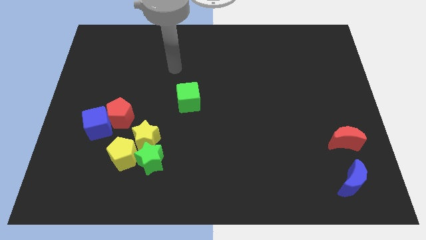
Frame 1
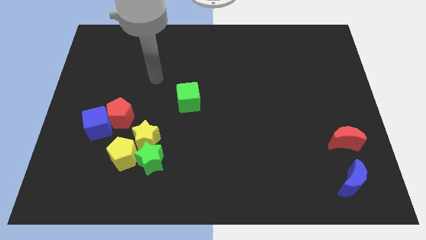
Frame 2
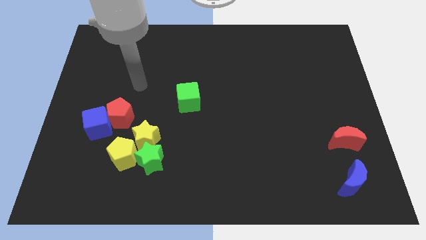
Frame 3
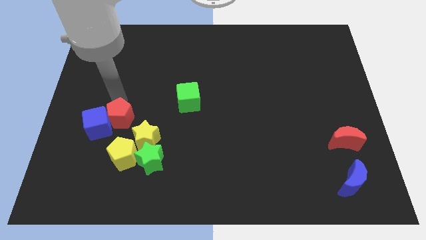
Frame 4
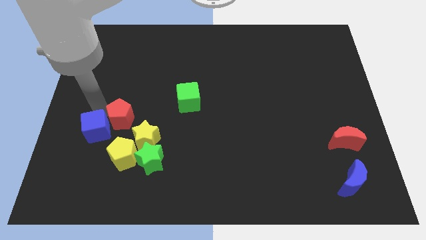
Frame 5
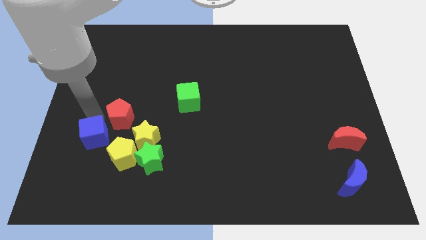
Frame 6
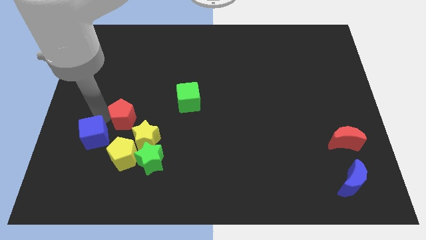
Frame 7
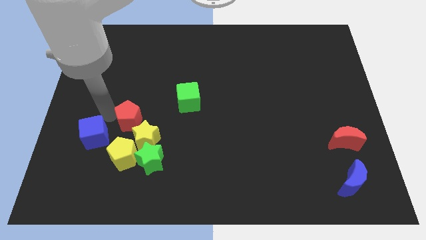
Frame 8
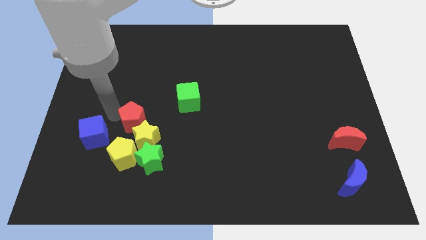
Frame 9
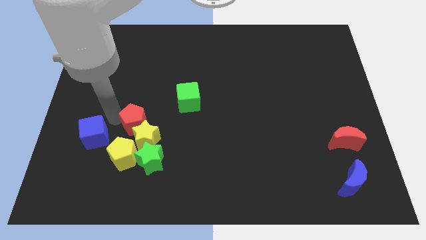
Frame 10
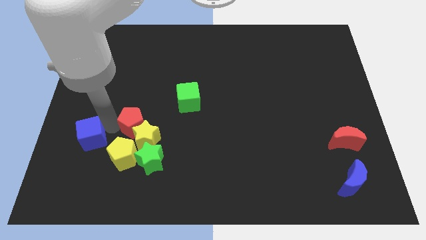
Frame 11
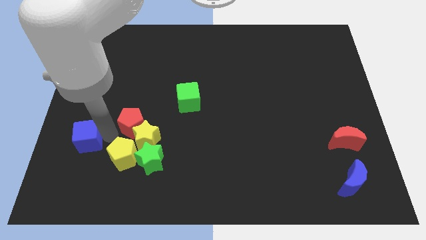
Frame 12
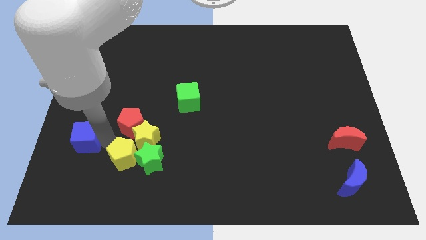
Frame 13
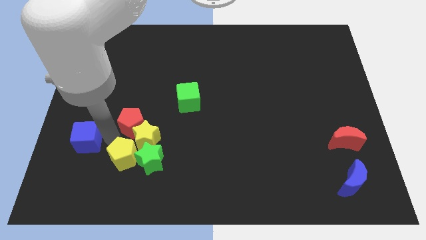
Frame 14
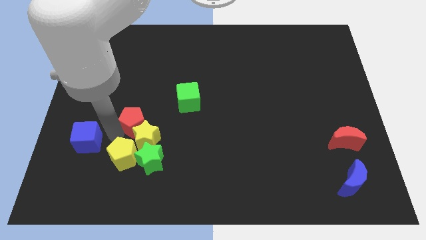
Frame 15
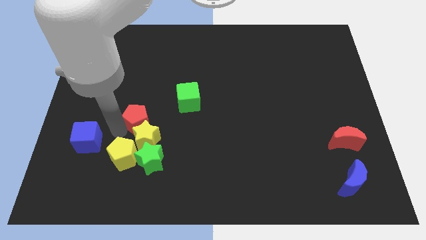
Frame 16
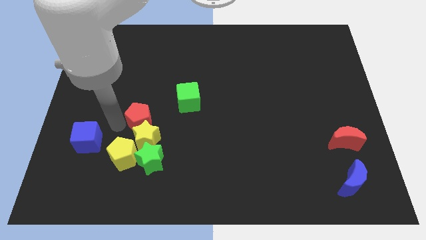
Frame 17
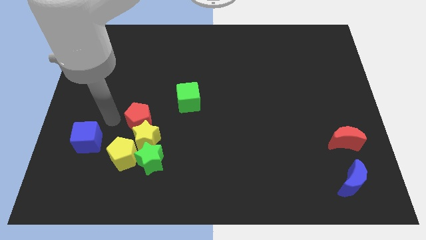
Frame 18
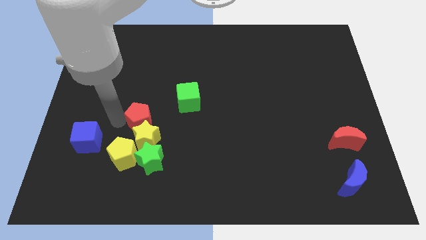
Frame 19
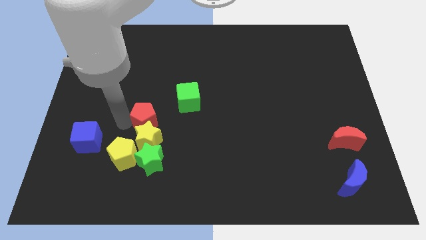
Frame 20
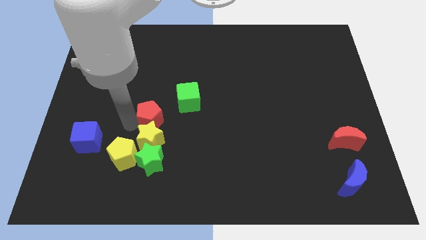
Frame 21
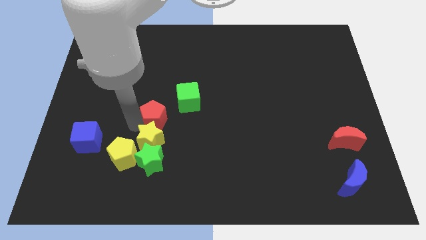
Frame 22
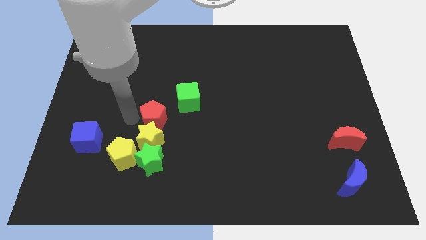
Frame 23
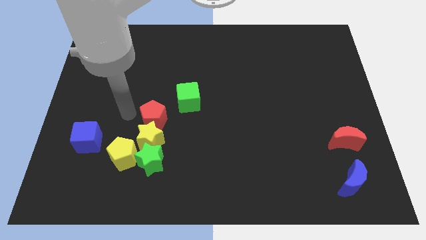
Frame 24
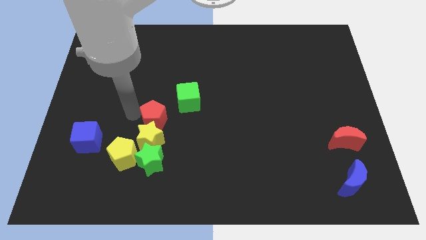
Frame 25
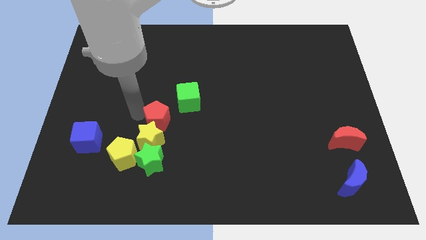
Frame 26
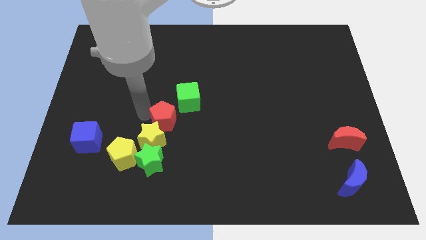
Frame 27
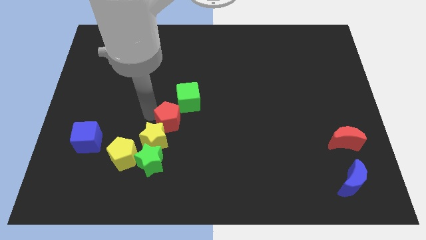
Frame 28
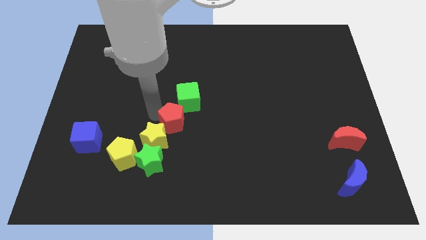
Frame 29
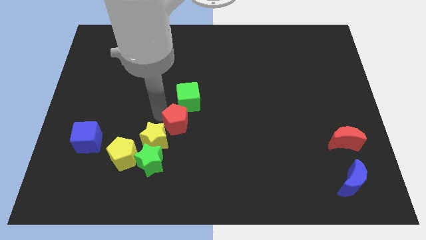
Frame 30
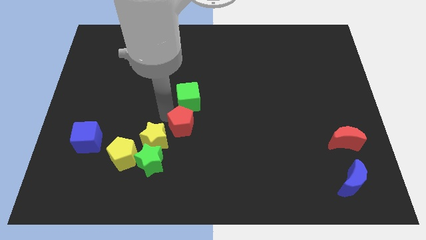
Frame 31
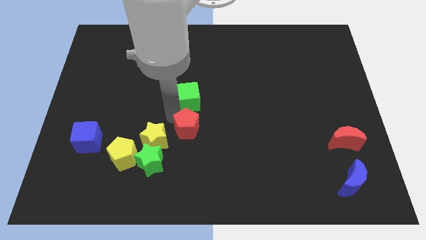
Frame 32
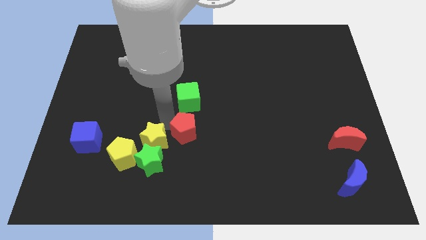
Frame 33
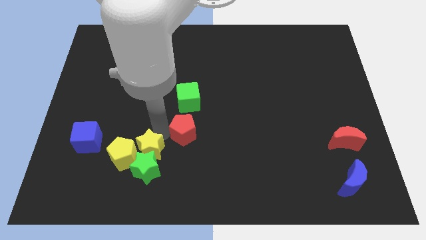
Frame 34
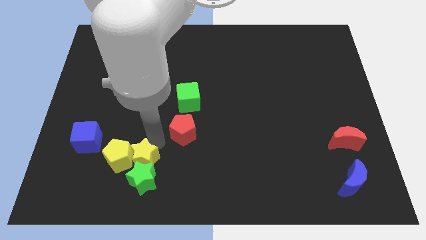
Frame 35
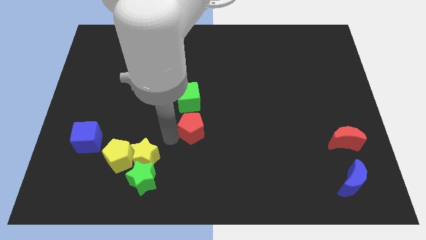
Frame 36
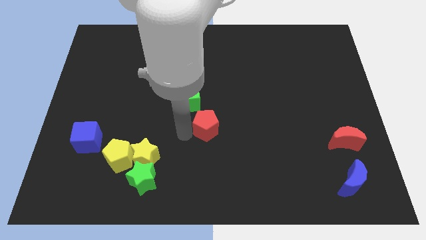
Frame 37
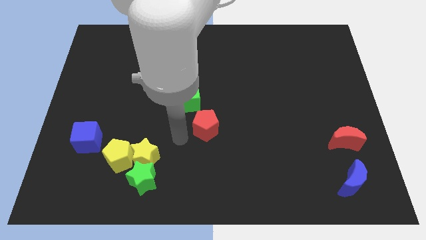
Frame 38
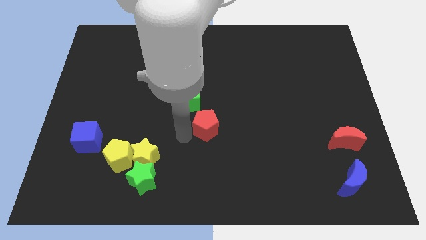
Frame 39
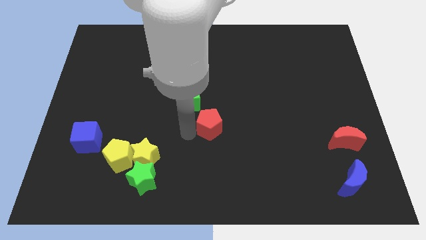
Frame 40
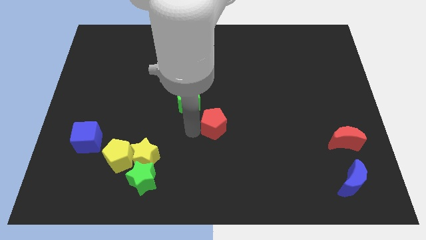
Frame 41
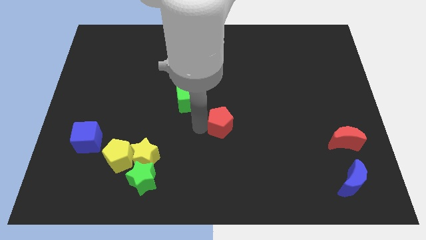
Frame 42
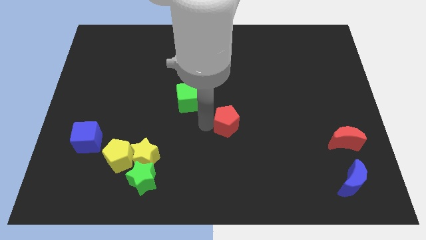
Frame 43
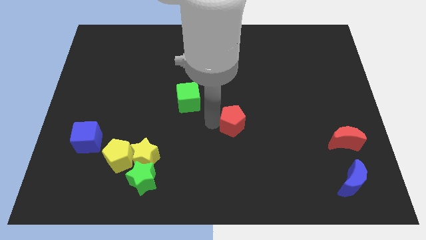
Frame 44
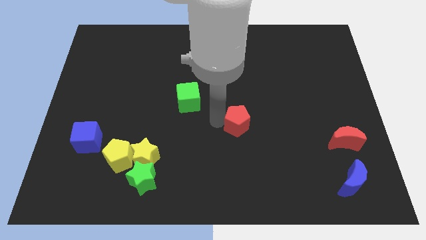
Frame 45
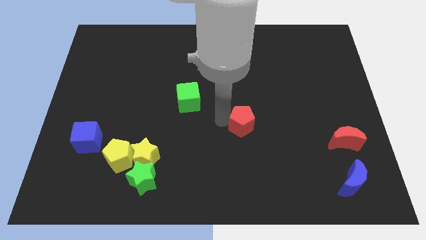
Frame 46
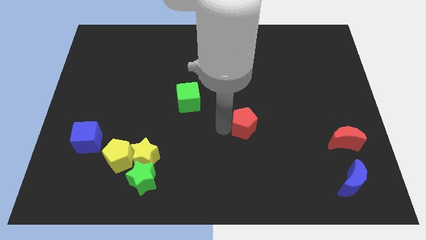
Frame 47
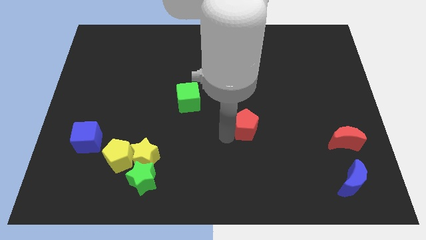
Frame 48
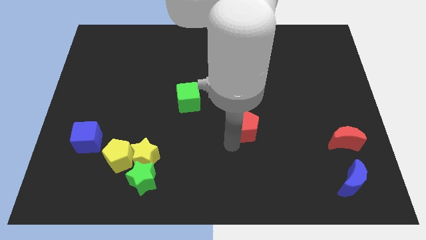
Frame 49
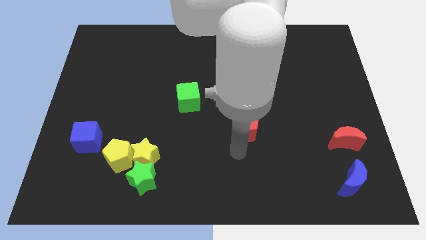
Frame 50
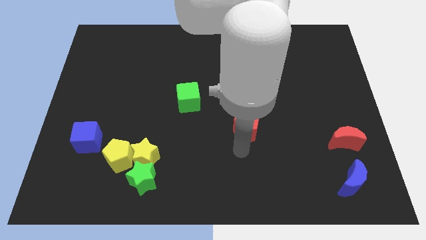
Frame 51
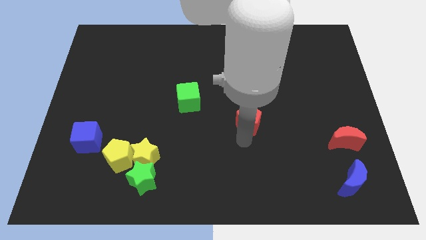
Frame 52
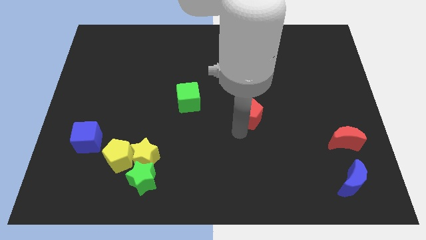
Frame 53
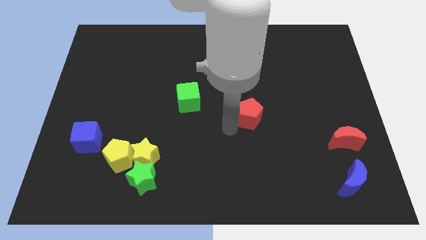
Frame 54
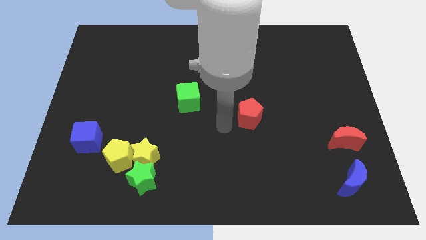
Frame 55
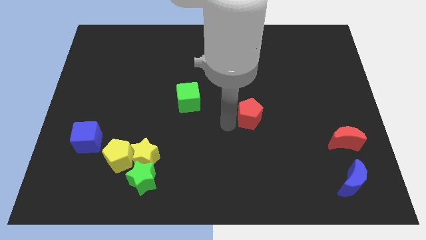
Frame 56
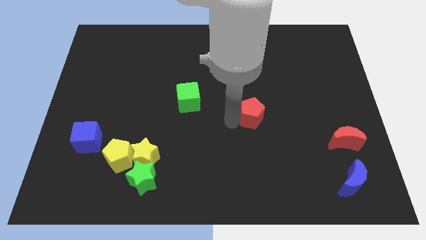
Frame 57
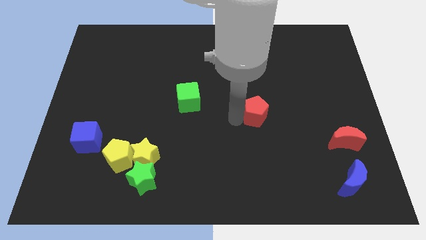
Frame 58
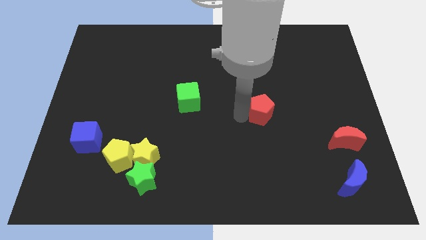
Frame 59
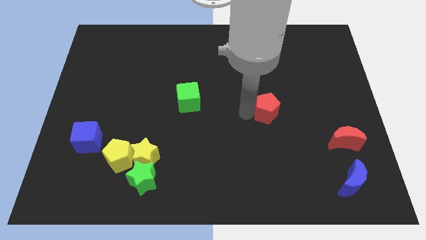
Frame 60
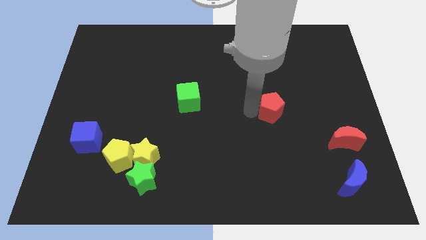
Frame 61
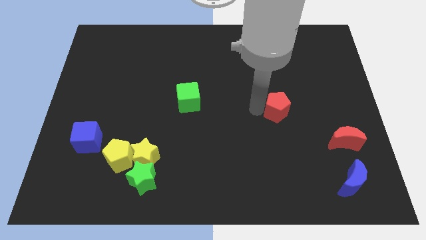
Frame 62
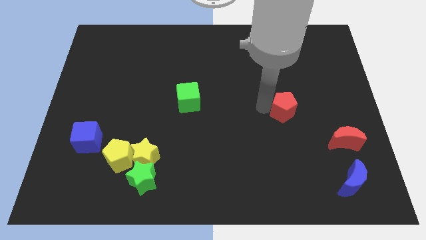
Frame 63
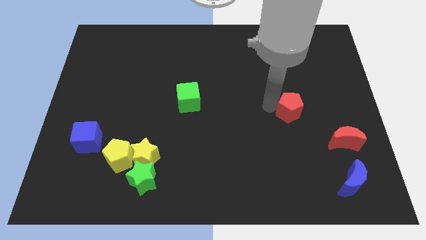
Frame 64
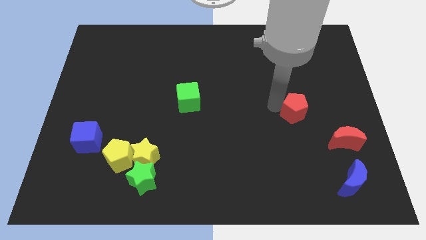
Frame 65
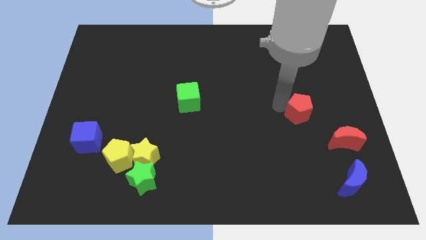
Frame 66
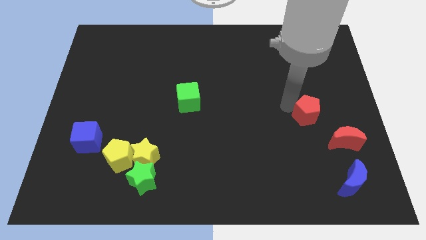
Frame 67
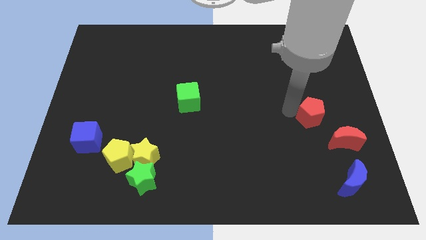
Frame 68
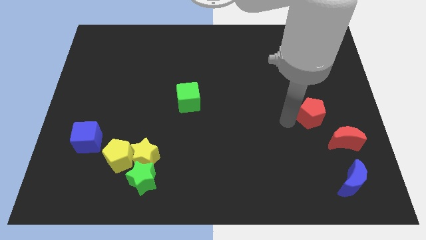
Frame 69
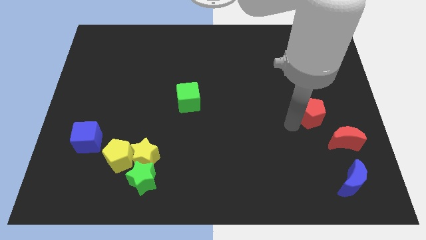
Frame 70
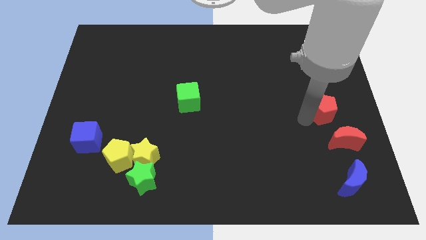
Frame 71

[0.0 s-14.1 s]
slide the red pentagon to the right side of the board
